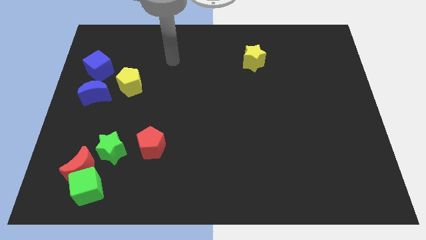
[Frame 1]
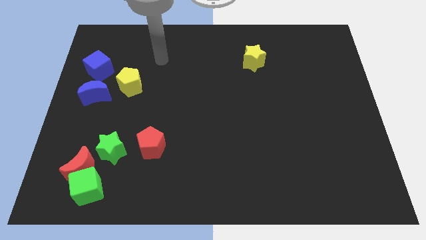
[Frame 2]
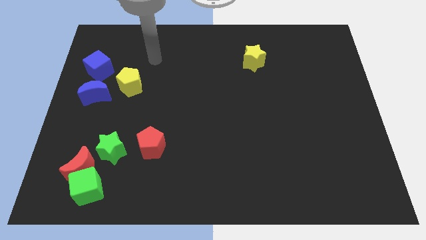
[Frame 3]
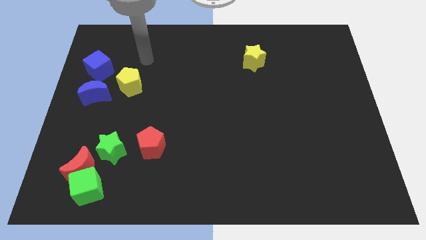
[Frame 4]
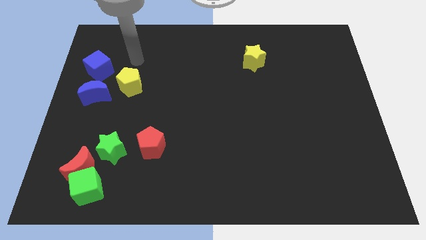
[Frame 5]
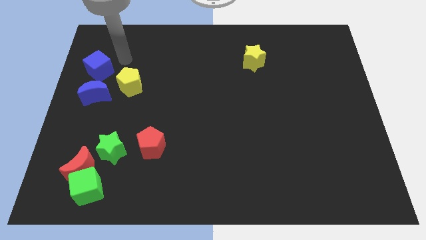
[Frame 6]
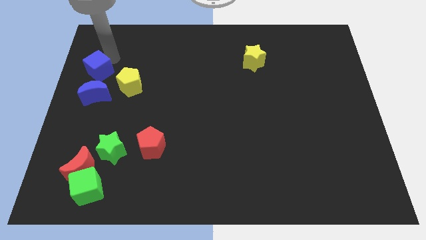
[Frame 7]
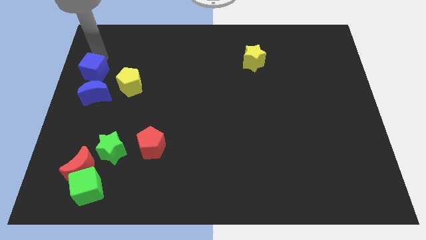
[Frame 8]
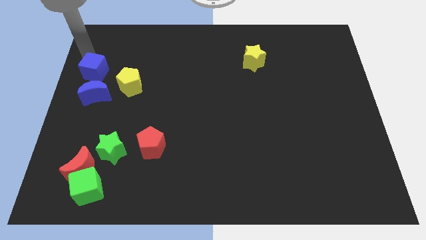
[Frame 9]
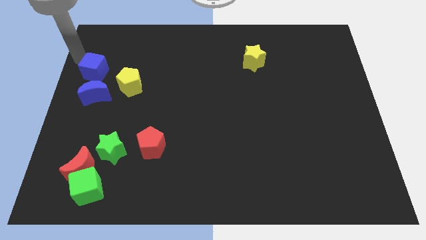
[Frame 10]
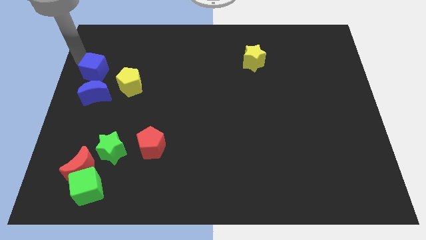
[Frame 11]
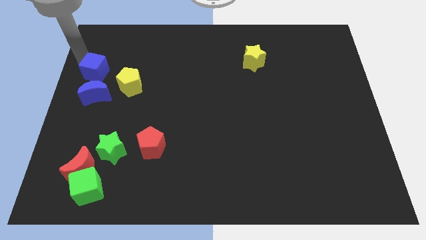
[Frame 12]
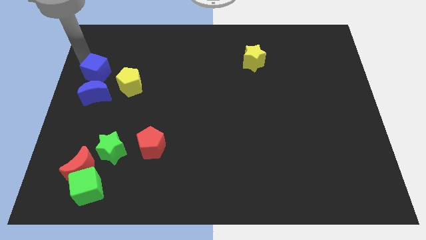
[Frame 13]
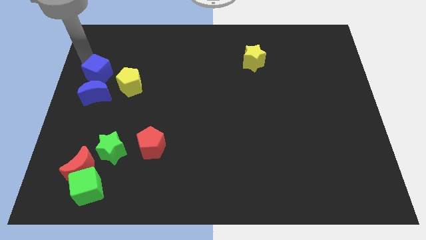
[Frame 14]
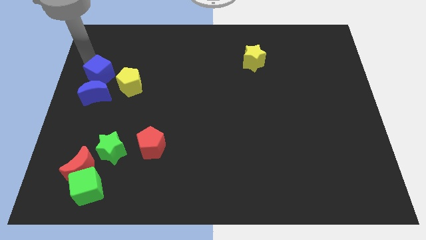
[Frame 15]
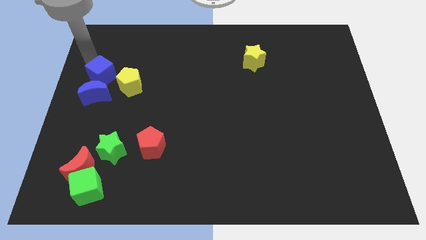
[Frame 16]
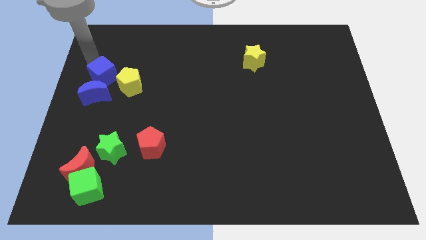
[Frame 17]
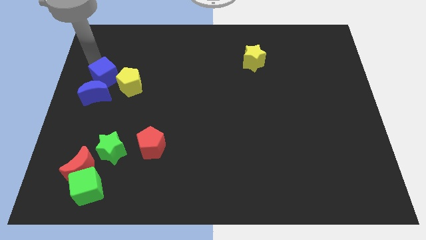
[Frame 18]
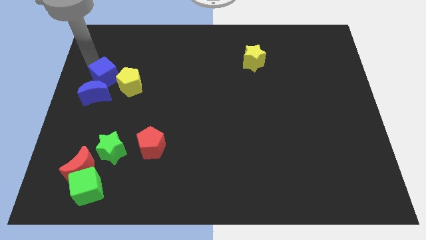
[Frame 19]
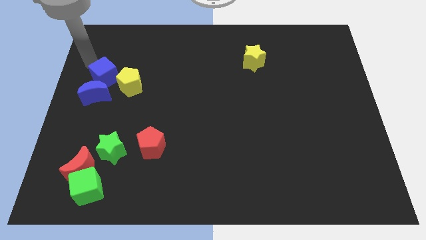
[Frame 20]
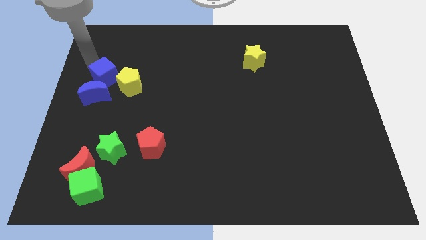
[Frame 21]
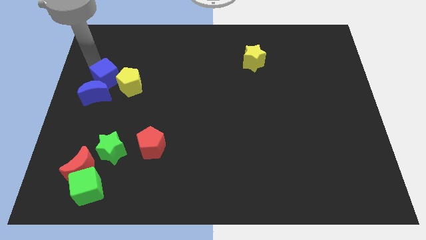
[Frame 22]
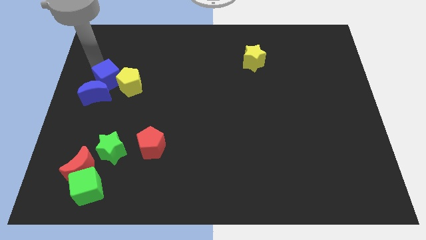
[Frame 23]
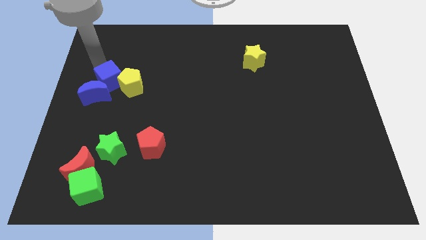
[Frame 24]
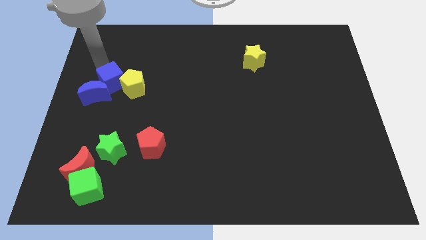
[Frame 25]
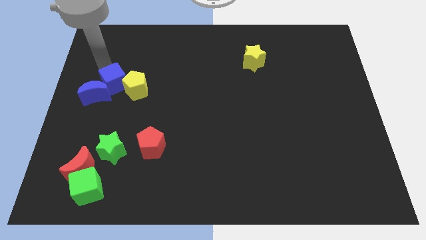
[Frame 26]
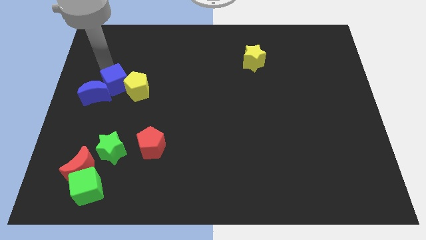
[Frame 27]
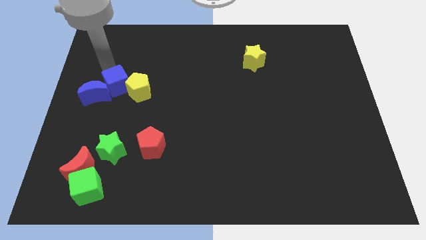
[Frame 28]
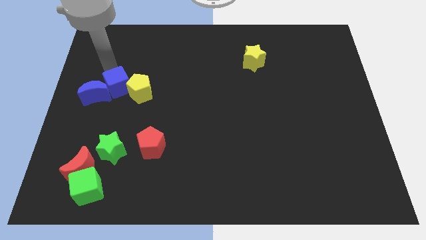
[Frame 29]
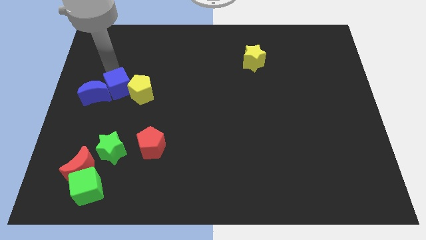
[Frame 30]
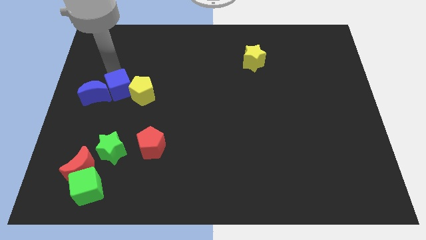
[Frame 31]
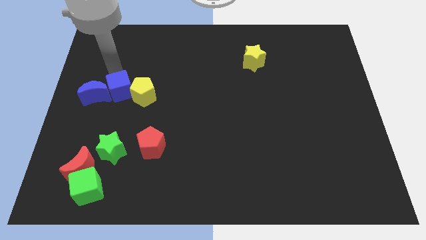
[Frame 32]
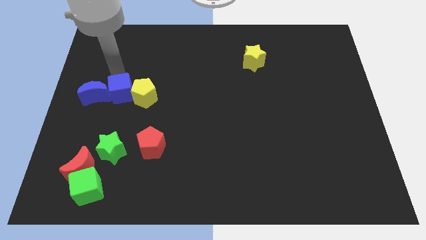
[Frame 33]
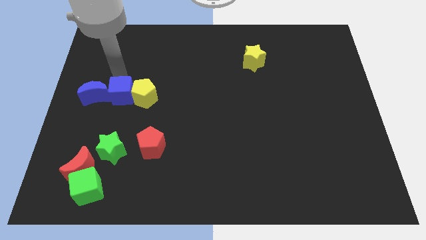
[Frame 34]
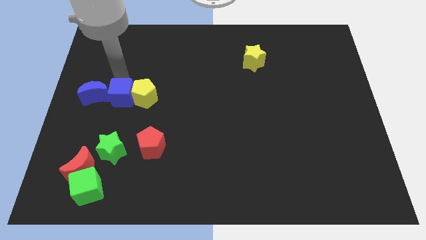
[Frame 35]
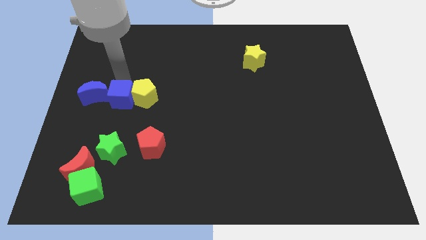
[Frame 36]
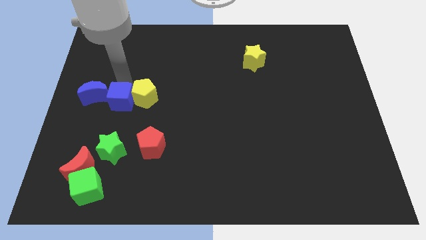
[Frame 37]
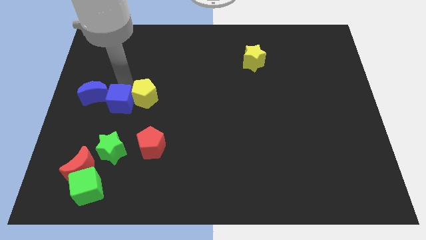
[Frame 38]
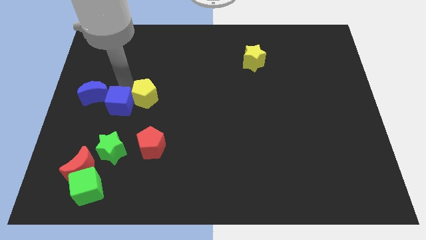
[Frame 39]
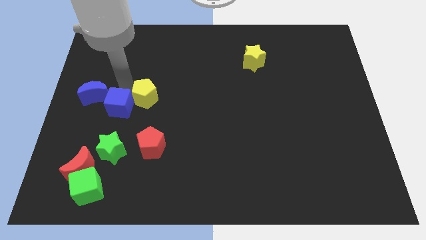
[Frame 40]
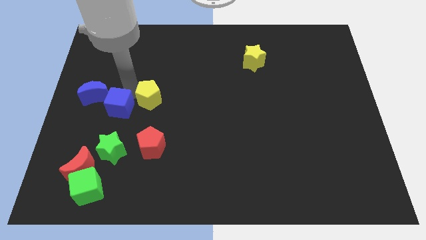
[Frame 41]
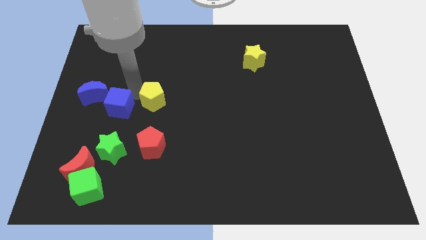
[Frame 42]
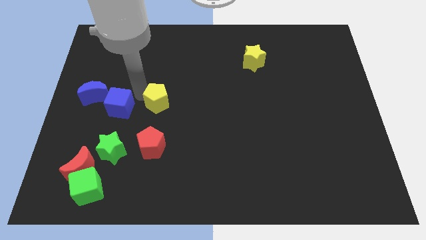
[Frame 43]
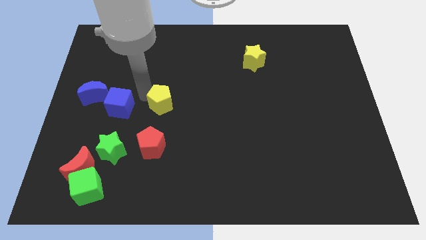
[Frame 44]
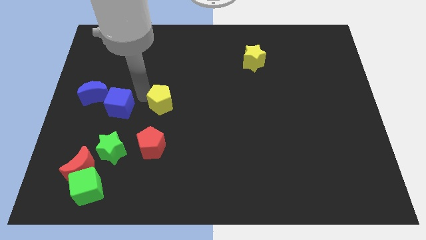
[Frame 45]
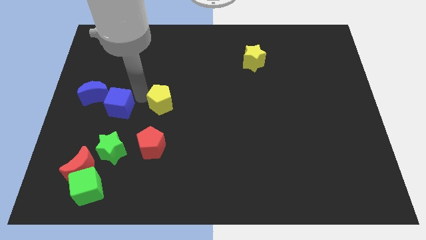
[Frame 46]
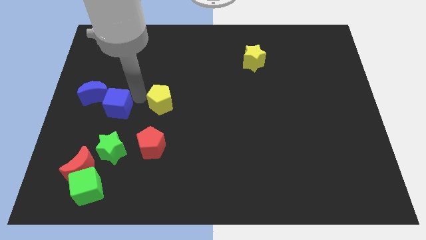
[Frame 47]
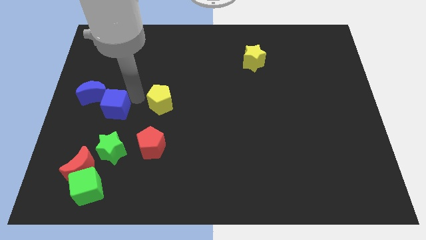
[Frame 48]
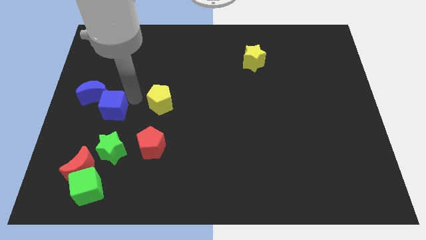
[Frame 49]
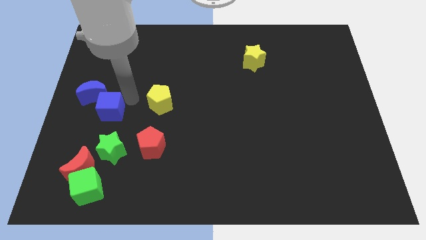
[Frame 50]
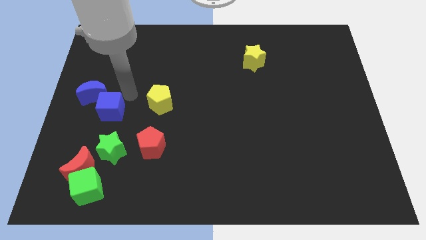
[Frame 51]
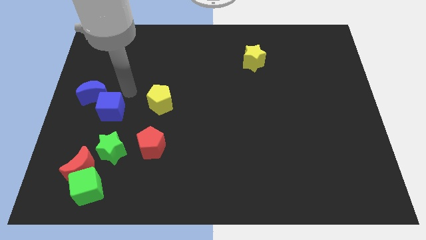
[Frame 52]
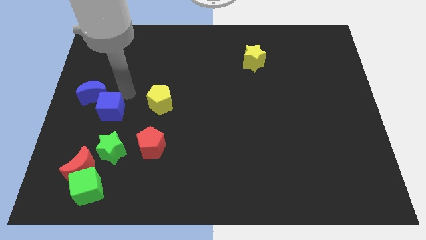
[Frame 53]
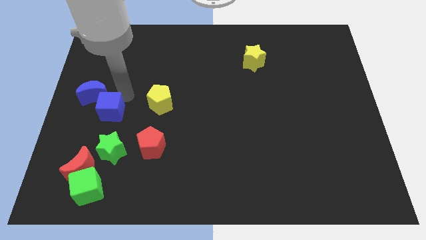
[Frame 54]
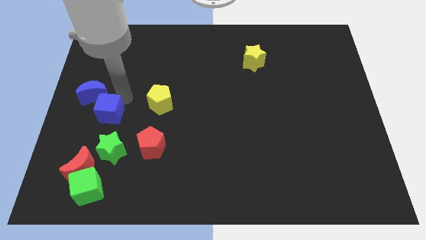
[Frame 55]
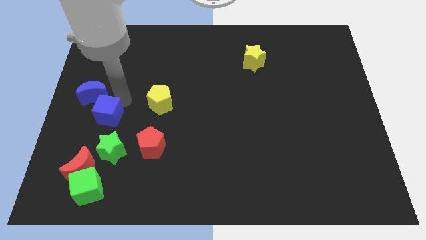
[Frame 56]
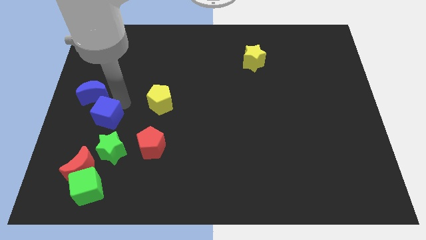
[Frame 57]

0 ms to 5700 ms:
move the blue cube to the top left of the green star

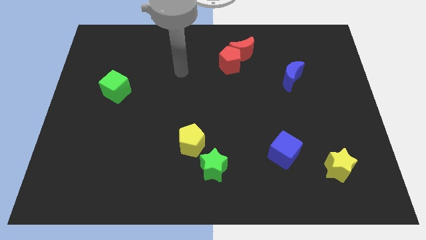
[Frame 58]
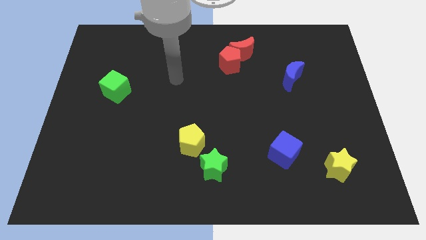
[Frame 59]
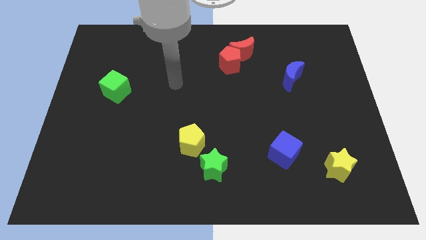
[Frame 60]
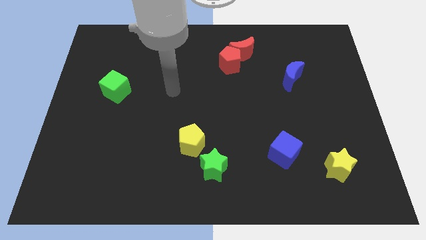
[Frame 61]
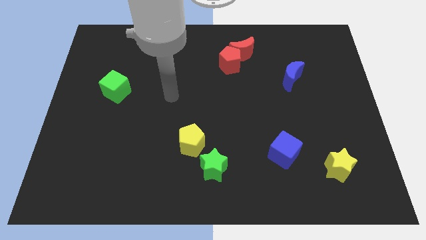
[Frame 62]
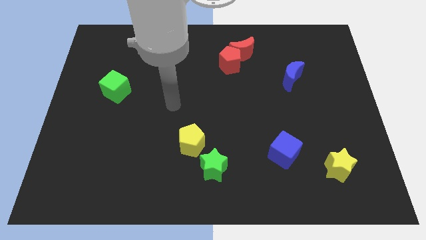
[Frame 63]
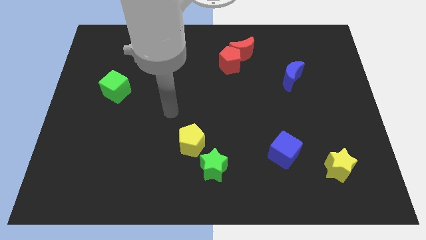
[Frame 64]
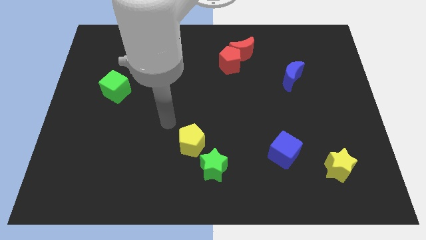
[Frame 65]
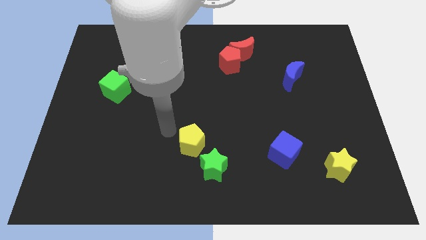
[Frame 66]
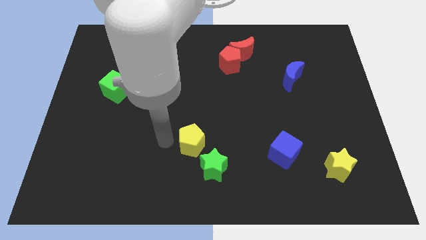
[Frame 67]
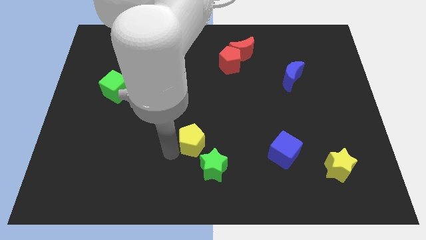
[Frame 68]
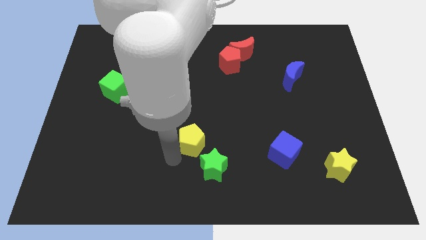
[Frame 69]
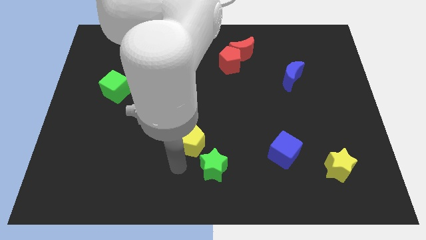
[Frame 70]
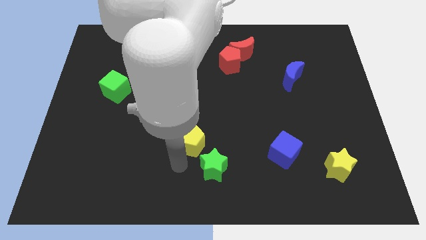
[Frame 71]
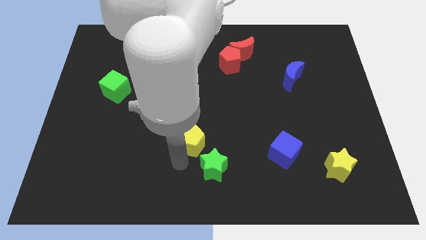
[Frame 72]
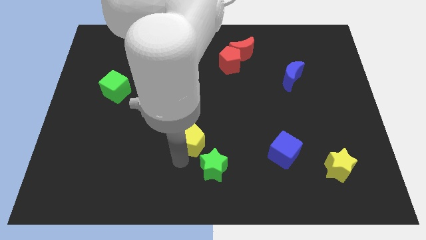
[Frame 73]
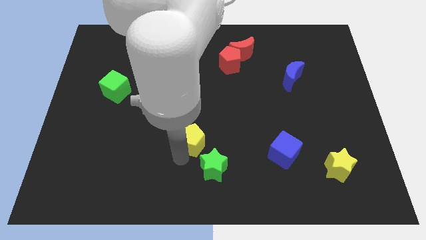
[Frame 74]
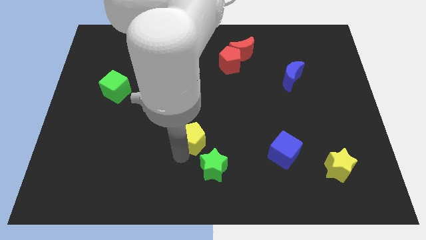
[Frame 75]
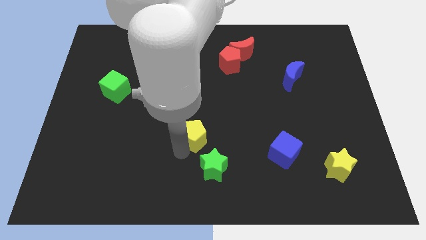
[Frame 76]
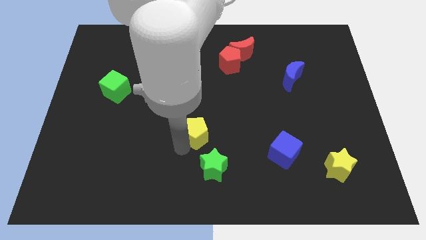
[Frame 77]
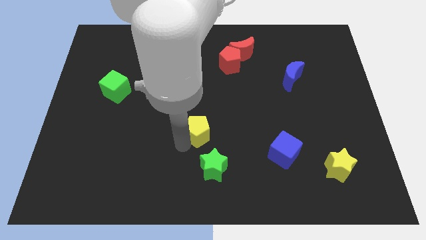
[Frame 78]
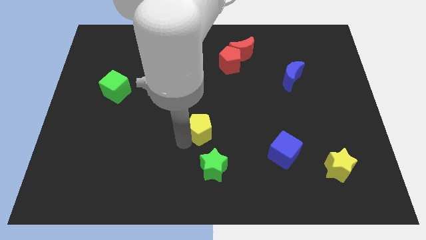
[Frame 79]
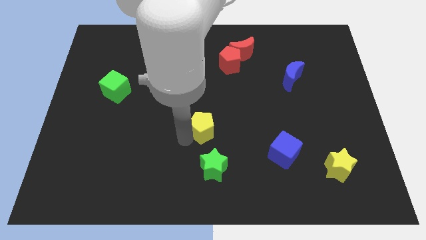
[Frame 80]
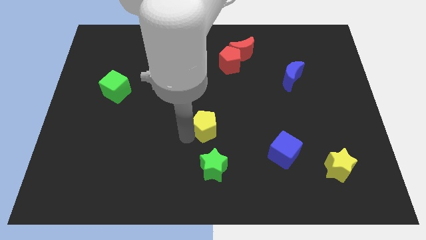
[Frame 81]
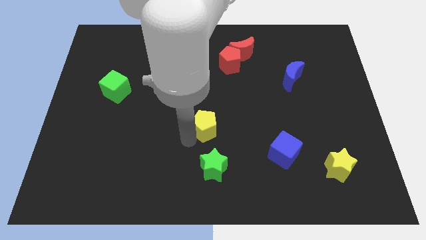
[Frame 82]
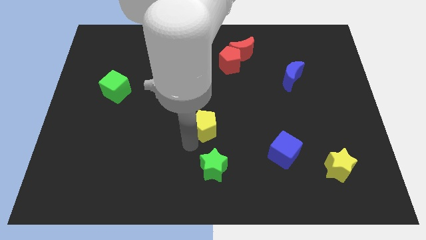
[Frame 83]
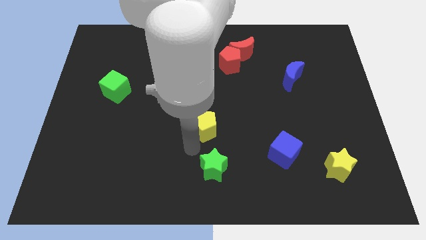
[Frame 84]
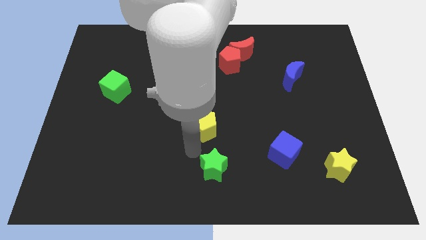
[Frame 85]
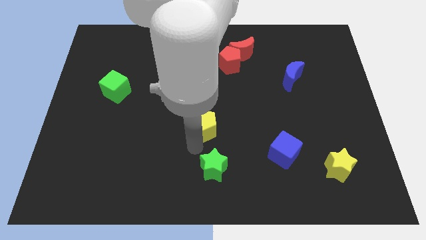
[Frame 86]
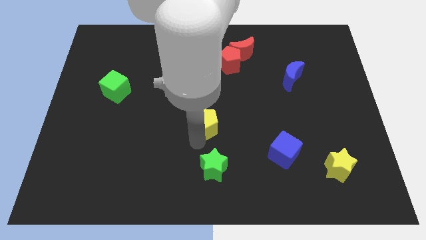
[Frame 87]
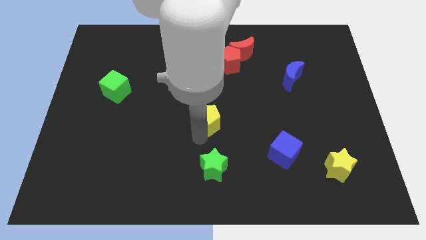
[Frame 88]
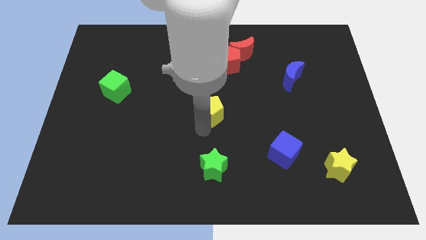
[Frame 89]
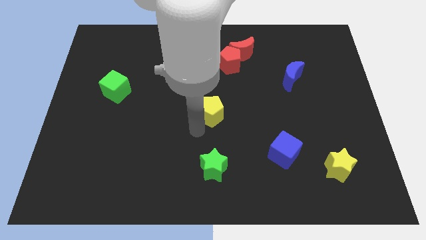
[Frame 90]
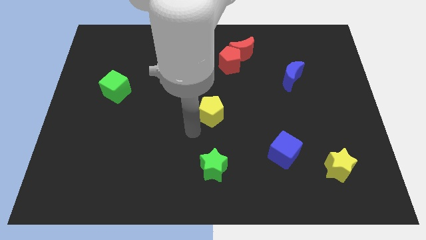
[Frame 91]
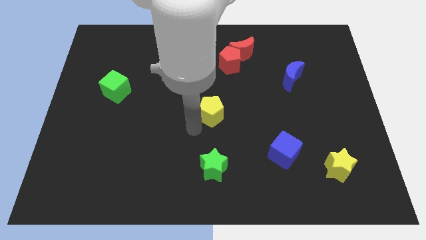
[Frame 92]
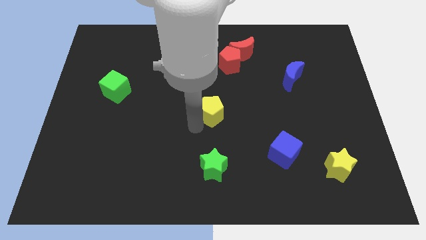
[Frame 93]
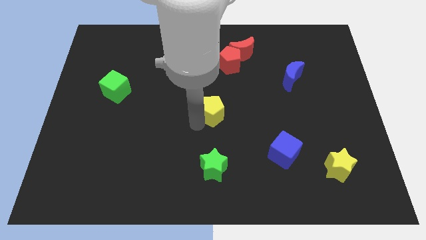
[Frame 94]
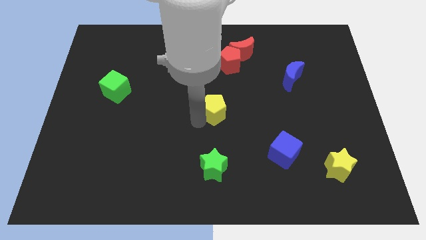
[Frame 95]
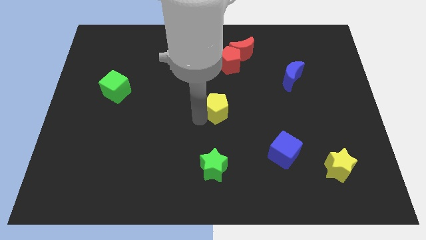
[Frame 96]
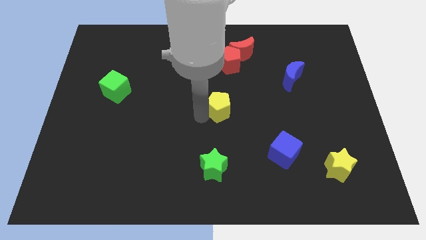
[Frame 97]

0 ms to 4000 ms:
move the yellow pentagon to the bottom of the red pentagon
